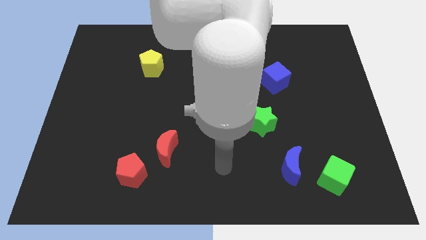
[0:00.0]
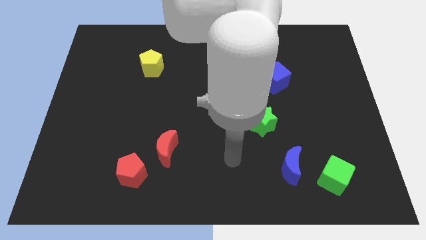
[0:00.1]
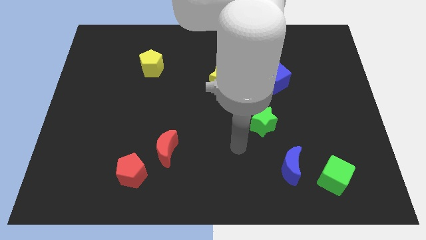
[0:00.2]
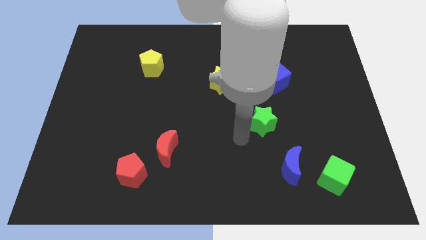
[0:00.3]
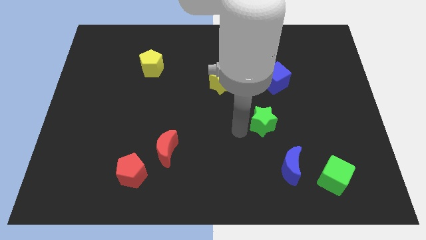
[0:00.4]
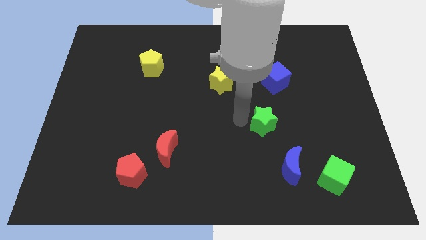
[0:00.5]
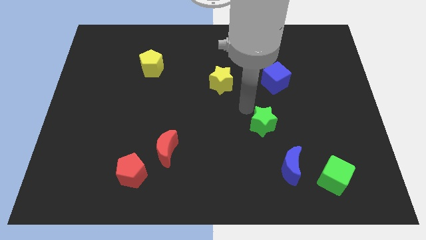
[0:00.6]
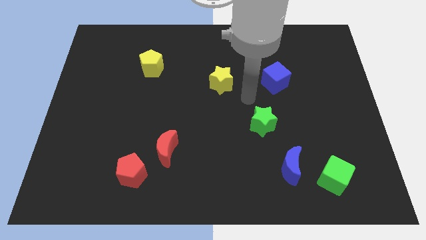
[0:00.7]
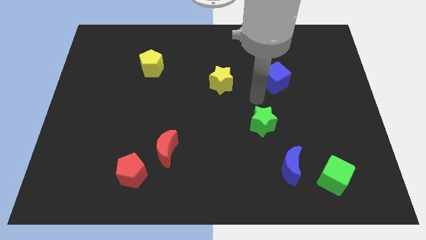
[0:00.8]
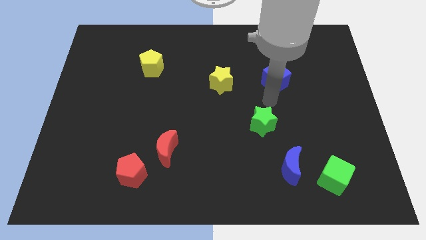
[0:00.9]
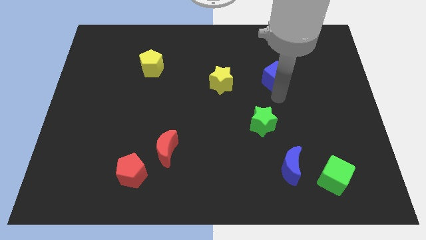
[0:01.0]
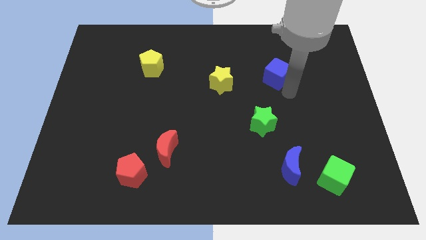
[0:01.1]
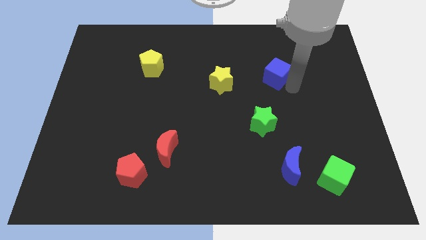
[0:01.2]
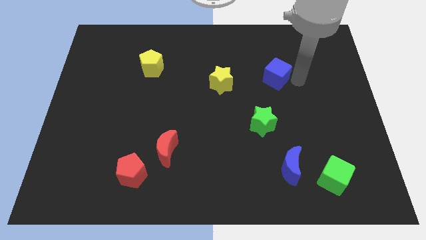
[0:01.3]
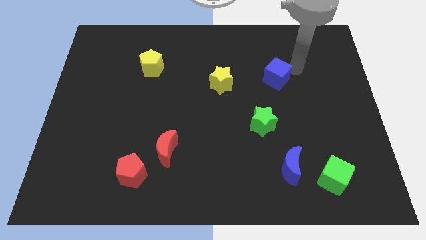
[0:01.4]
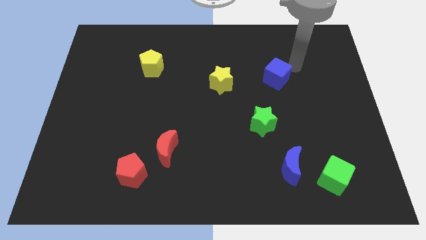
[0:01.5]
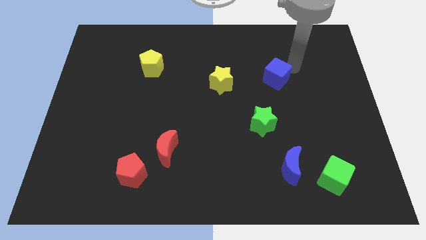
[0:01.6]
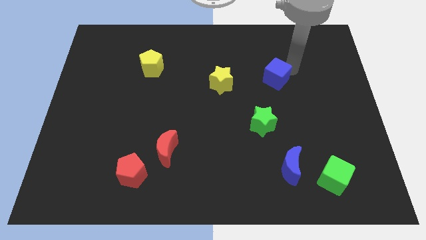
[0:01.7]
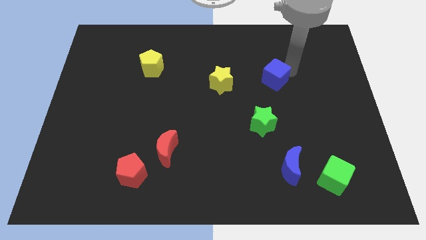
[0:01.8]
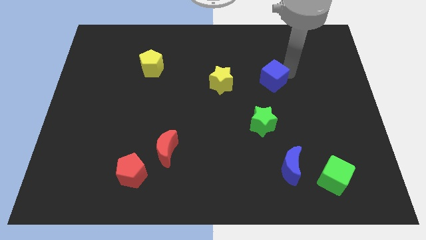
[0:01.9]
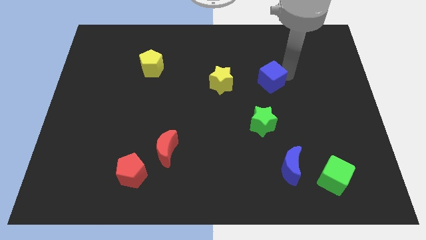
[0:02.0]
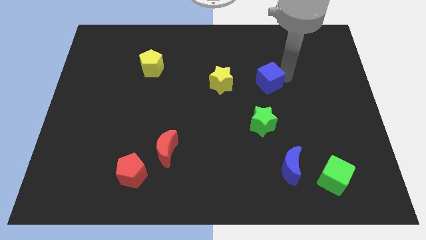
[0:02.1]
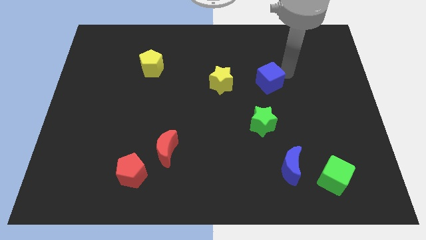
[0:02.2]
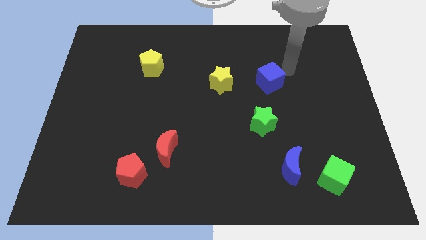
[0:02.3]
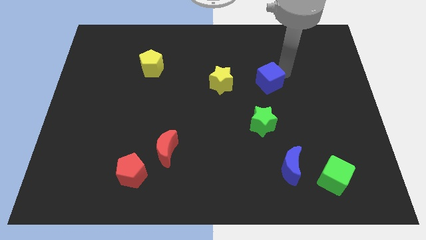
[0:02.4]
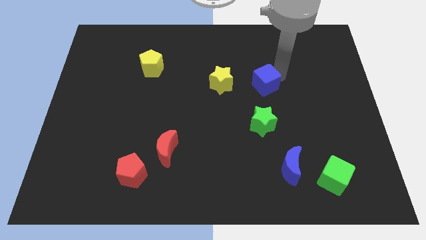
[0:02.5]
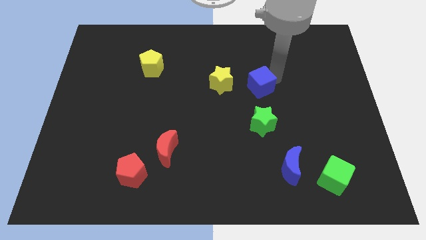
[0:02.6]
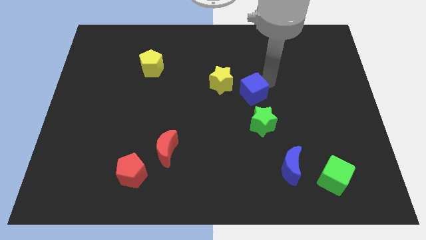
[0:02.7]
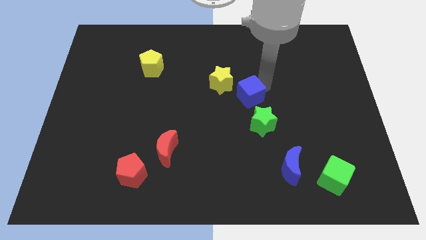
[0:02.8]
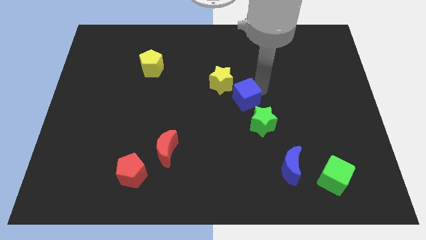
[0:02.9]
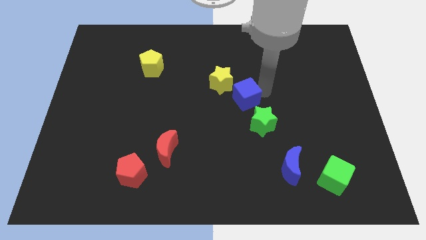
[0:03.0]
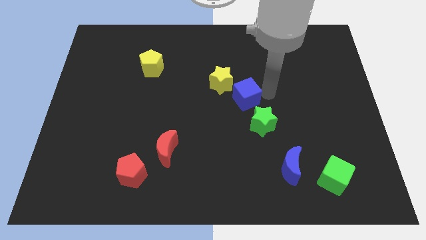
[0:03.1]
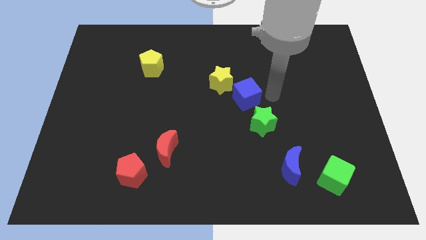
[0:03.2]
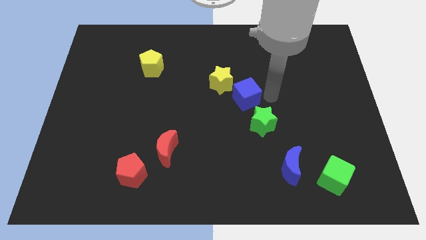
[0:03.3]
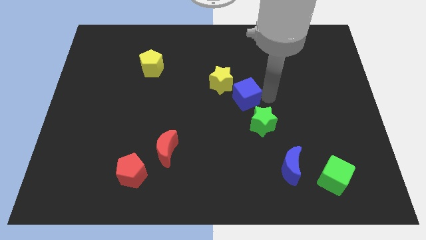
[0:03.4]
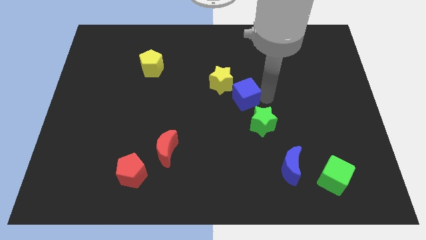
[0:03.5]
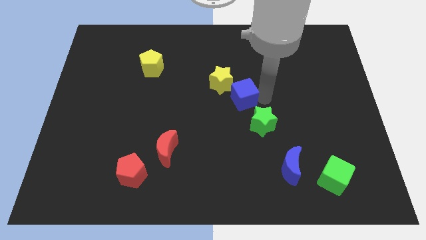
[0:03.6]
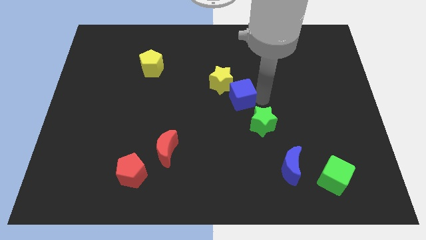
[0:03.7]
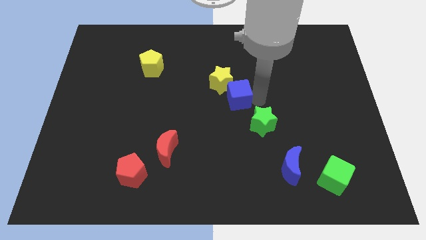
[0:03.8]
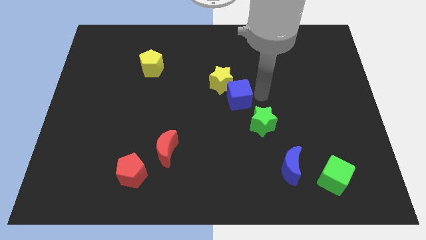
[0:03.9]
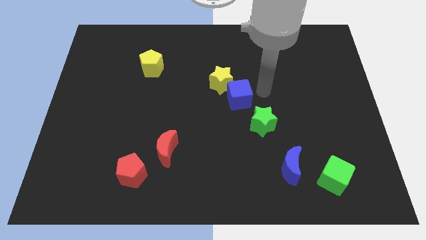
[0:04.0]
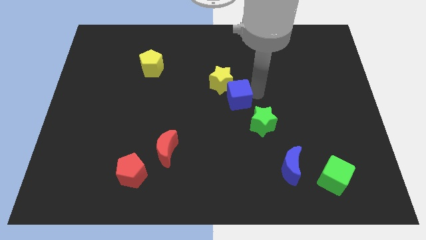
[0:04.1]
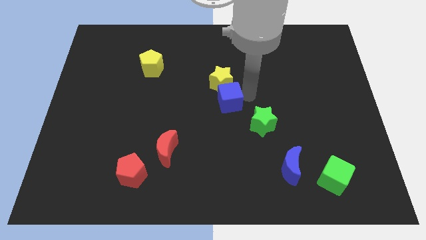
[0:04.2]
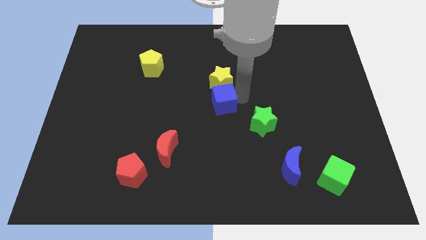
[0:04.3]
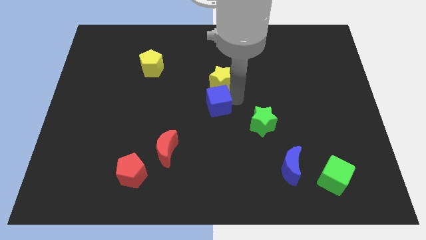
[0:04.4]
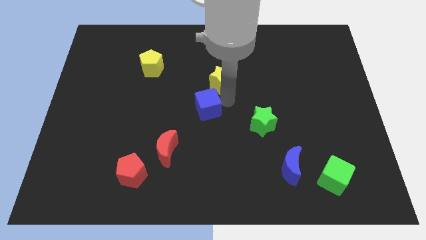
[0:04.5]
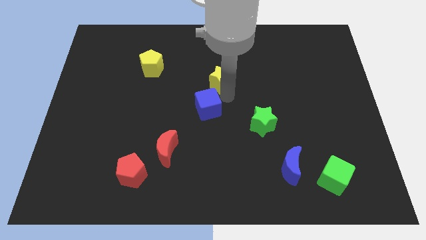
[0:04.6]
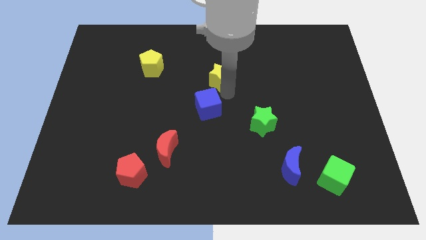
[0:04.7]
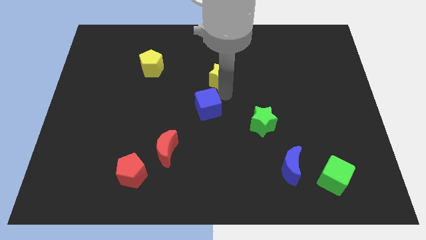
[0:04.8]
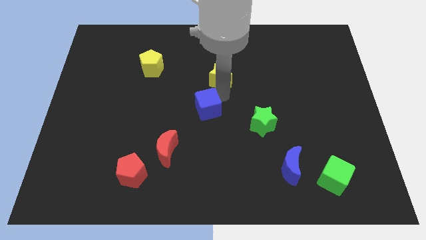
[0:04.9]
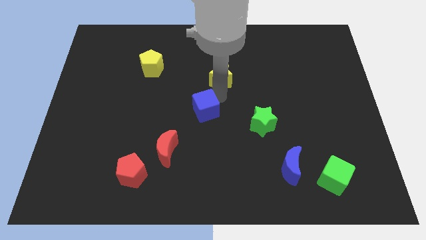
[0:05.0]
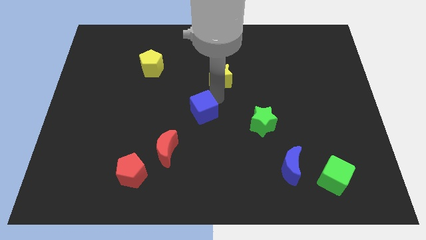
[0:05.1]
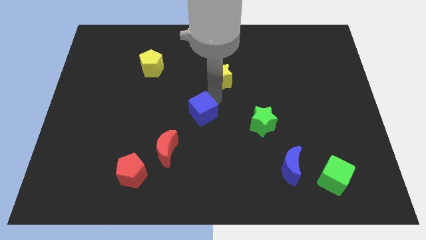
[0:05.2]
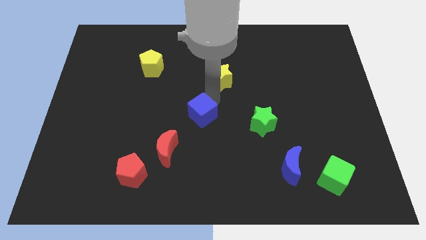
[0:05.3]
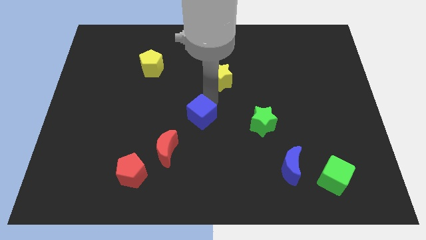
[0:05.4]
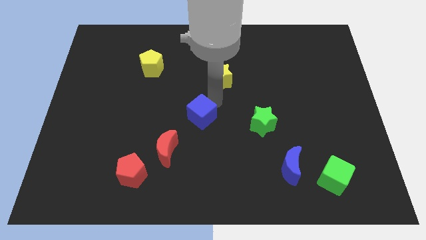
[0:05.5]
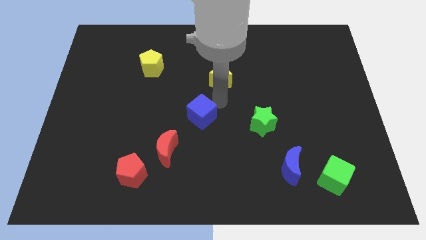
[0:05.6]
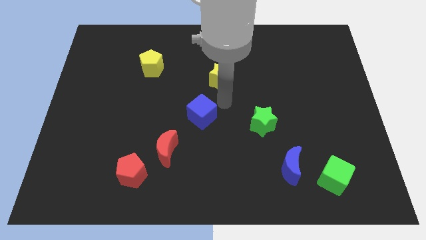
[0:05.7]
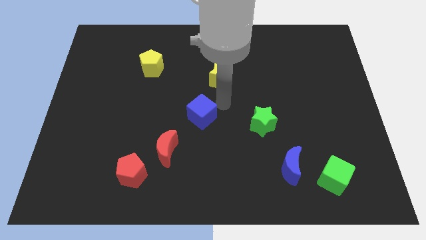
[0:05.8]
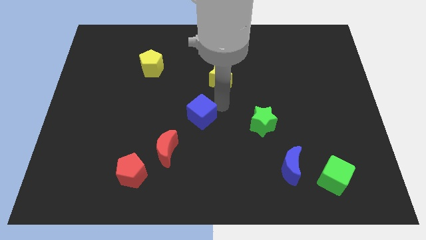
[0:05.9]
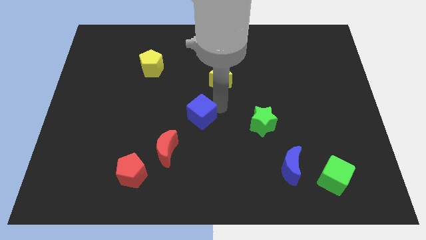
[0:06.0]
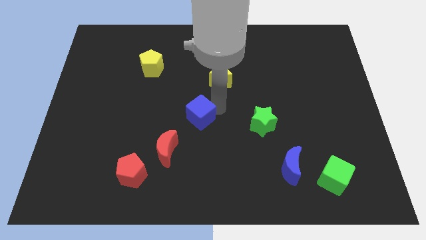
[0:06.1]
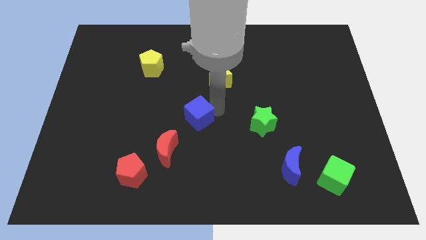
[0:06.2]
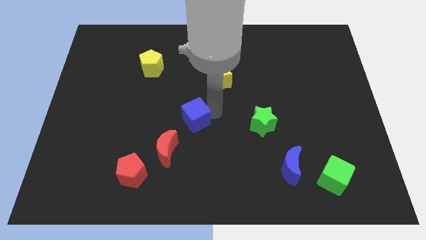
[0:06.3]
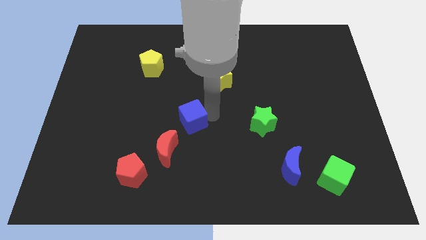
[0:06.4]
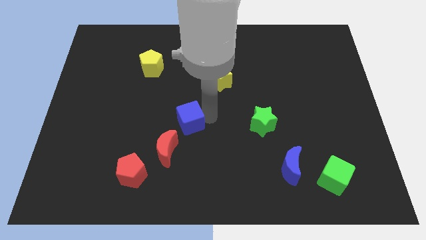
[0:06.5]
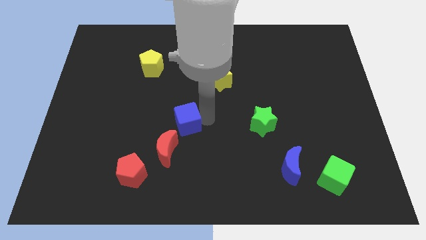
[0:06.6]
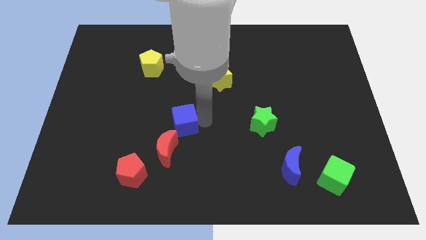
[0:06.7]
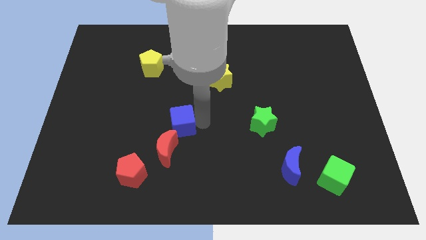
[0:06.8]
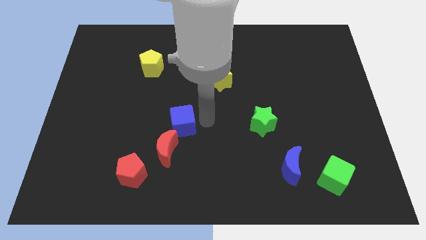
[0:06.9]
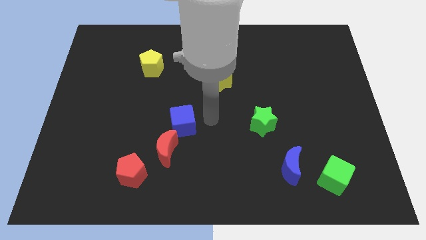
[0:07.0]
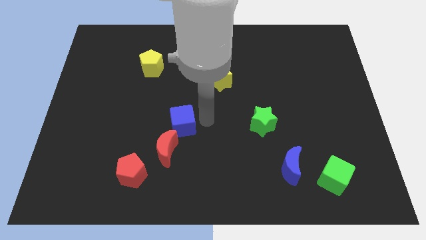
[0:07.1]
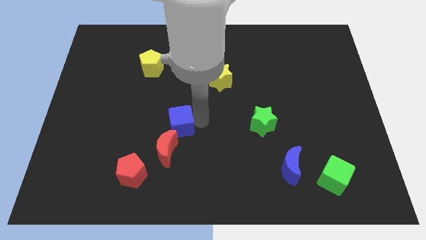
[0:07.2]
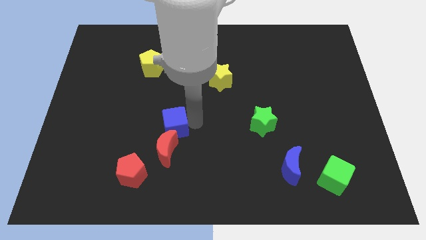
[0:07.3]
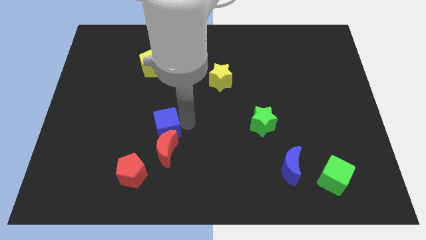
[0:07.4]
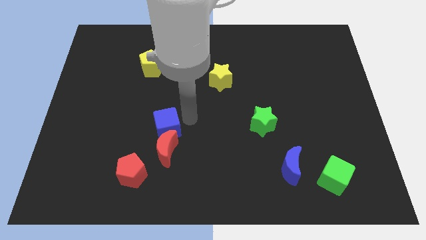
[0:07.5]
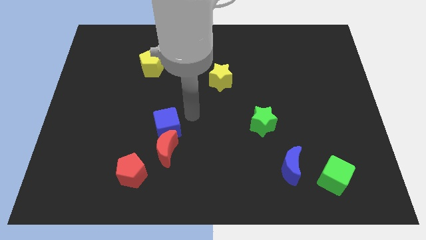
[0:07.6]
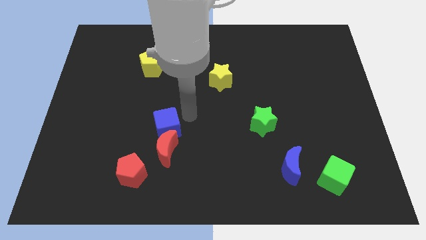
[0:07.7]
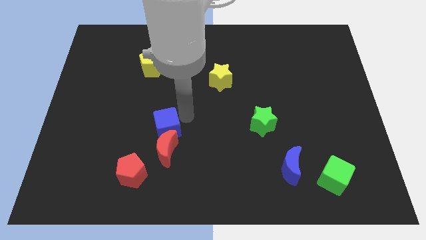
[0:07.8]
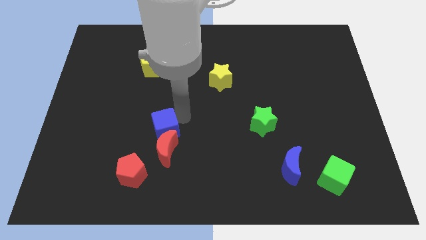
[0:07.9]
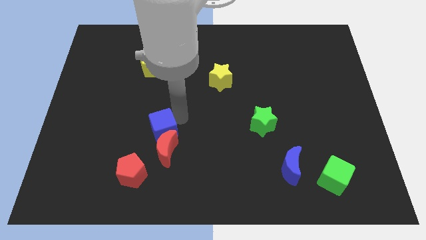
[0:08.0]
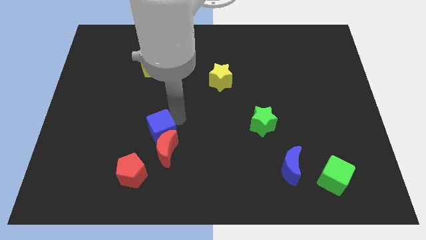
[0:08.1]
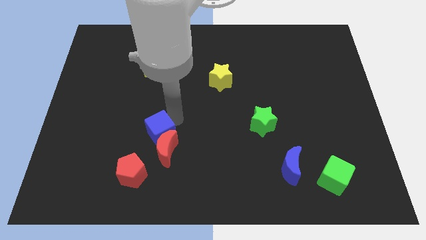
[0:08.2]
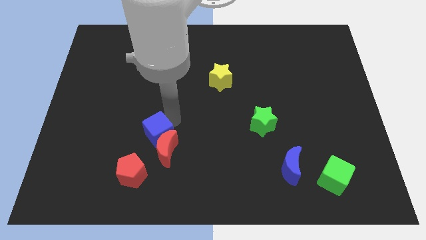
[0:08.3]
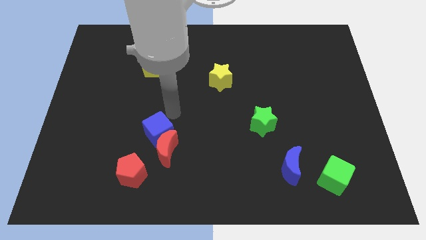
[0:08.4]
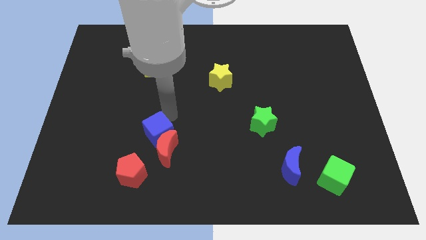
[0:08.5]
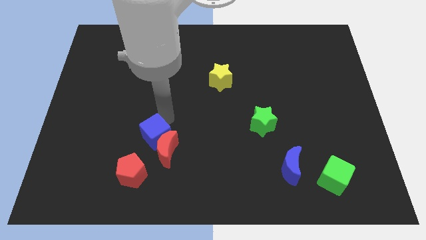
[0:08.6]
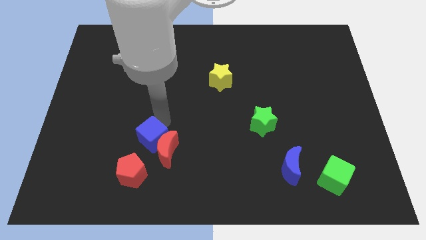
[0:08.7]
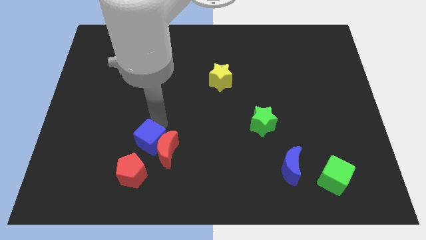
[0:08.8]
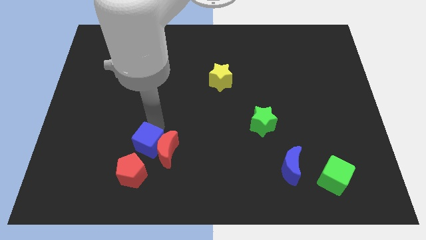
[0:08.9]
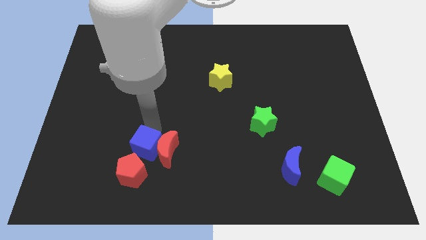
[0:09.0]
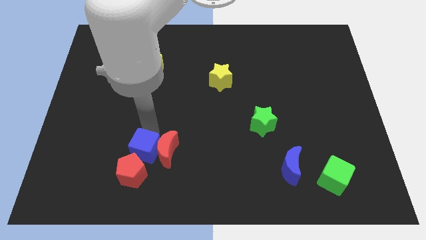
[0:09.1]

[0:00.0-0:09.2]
slide the blue cube close to the red pentagon
